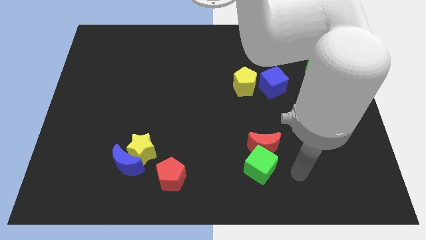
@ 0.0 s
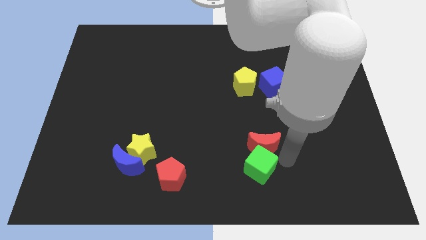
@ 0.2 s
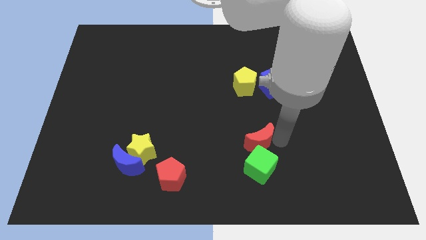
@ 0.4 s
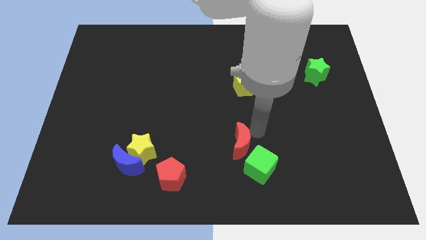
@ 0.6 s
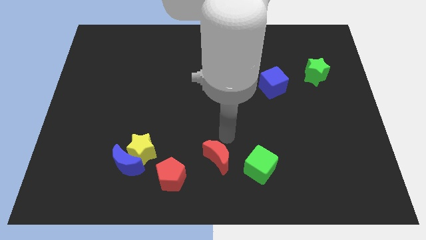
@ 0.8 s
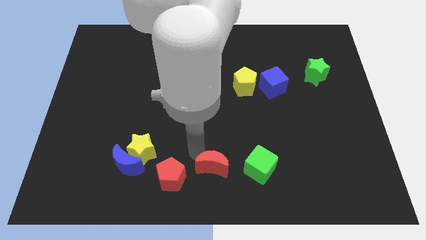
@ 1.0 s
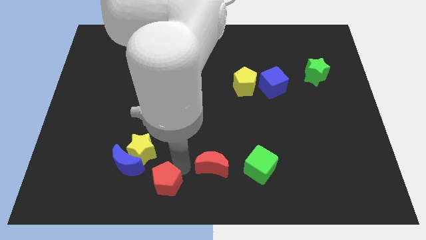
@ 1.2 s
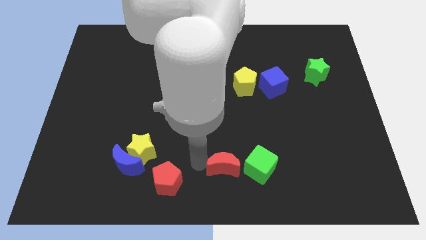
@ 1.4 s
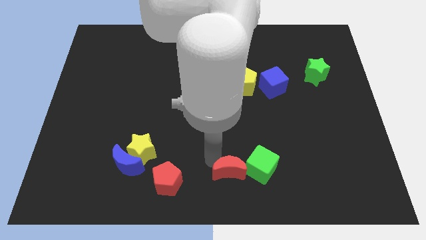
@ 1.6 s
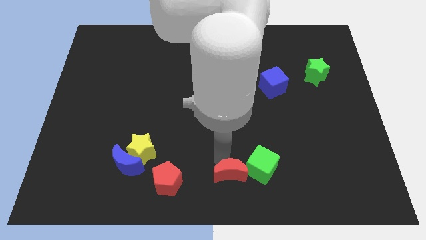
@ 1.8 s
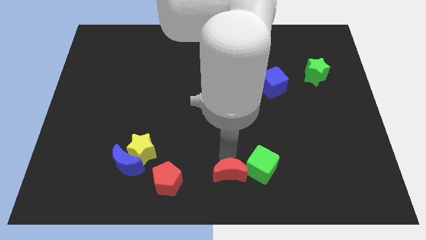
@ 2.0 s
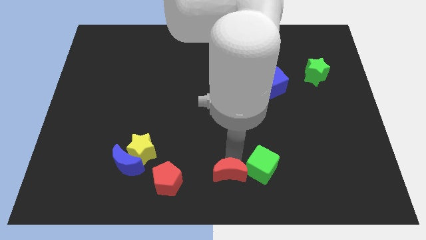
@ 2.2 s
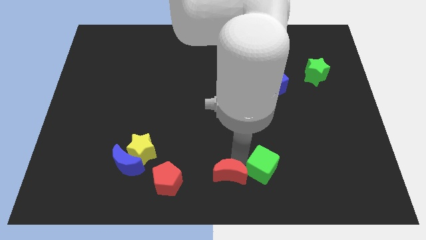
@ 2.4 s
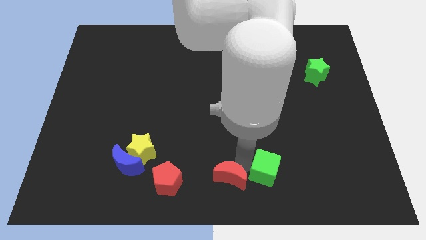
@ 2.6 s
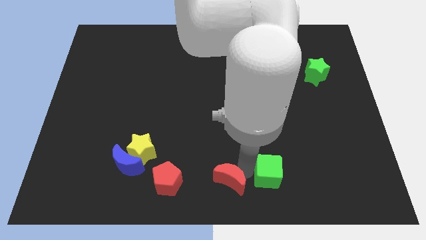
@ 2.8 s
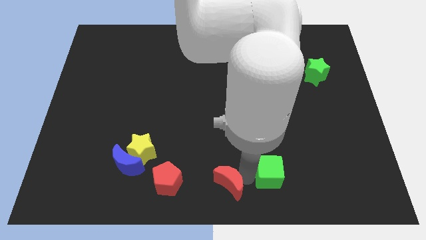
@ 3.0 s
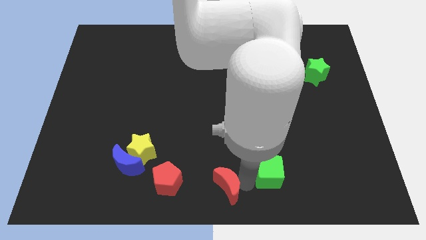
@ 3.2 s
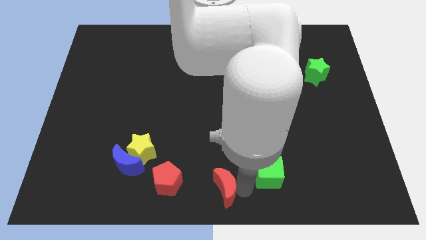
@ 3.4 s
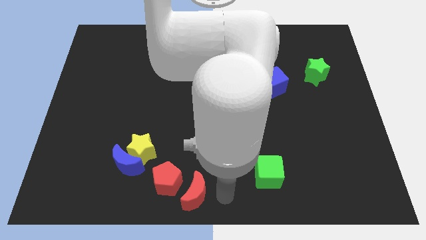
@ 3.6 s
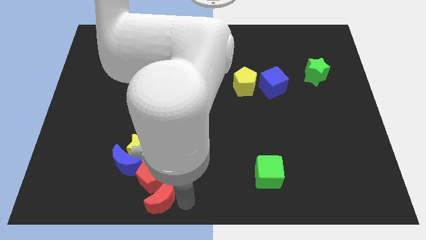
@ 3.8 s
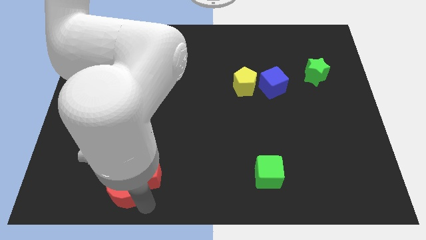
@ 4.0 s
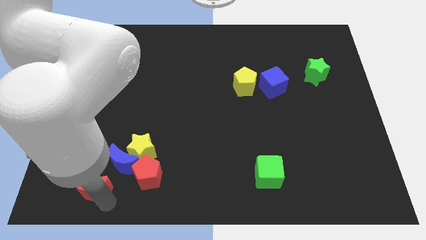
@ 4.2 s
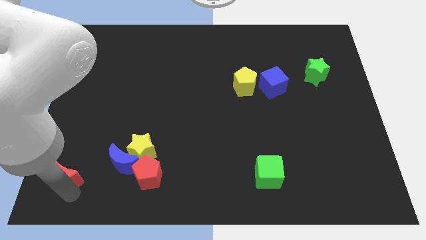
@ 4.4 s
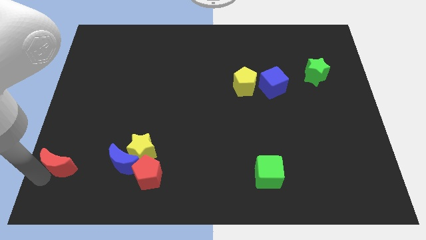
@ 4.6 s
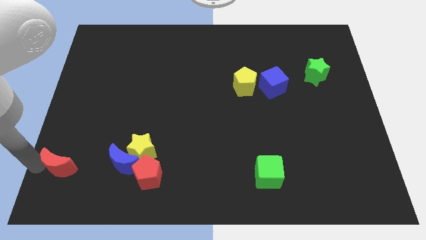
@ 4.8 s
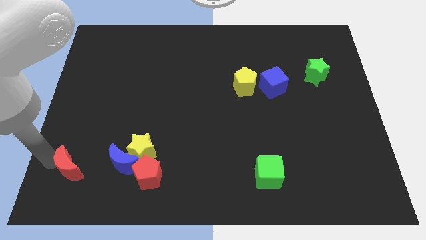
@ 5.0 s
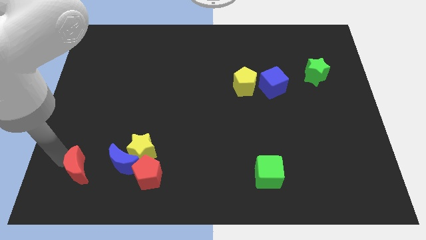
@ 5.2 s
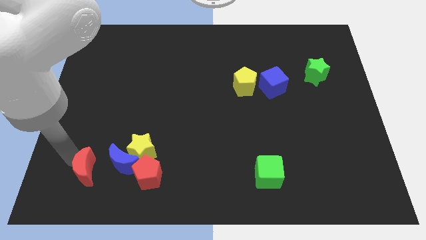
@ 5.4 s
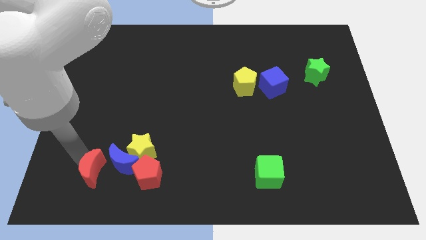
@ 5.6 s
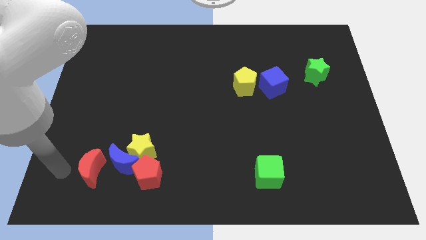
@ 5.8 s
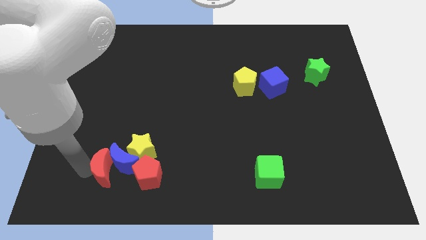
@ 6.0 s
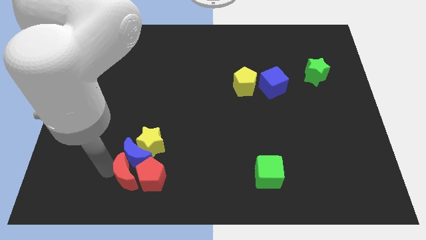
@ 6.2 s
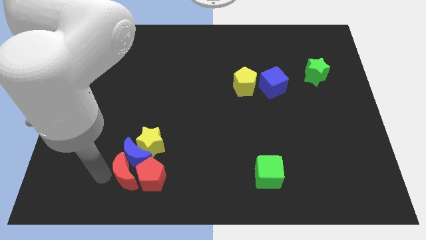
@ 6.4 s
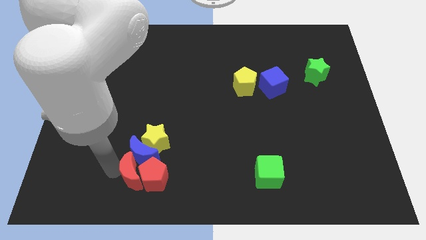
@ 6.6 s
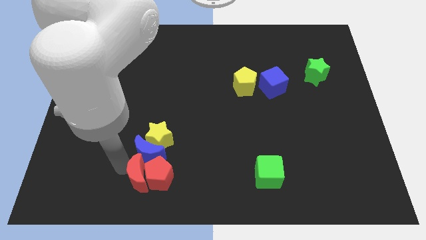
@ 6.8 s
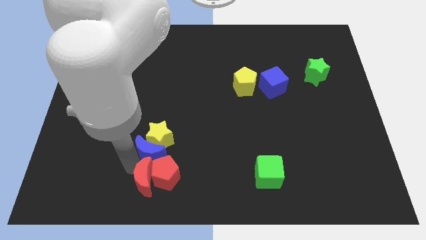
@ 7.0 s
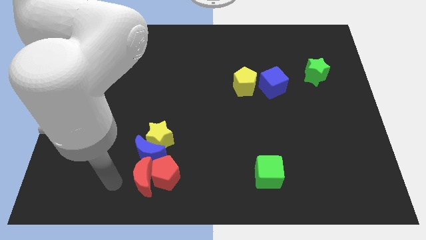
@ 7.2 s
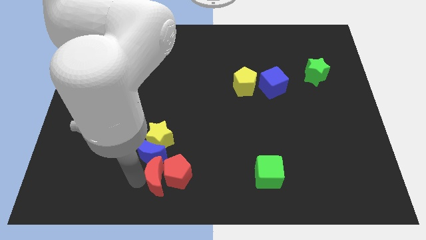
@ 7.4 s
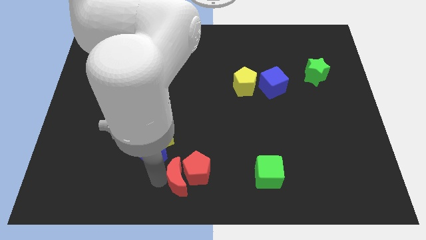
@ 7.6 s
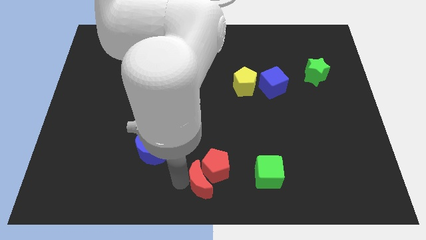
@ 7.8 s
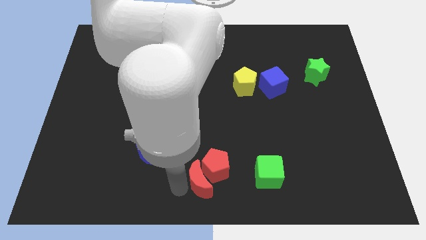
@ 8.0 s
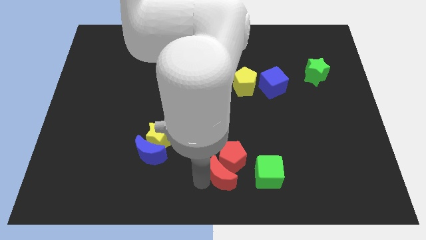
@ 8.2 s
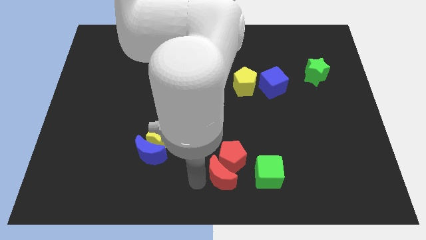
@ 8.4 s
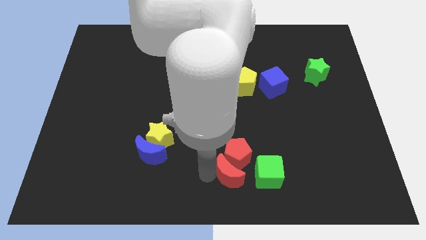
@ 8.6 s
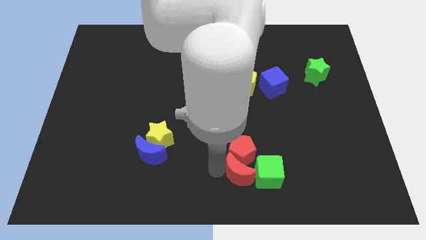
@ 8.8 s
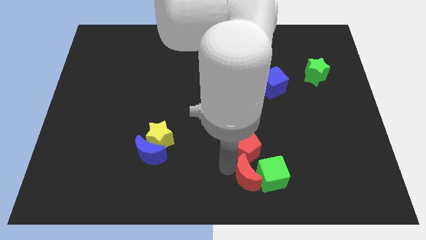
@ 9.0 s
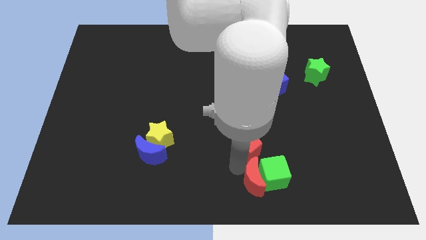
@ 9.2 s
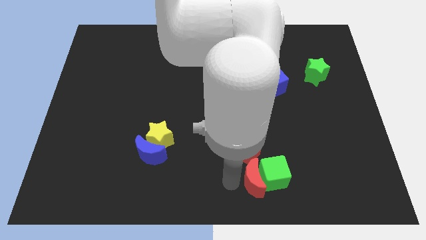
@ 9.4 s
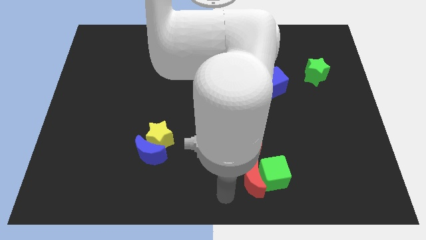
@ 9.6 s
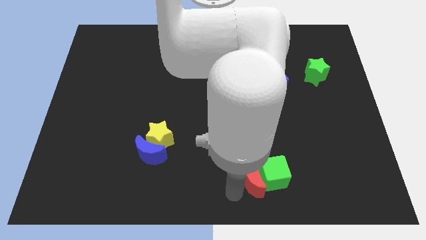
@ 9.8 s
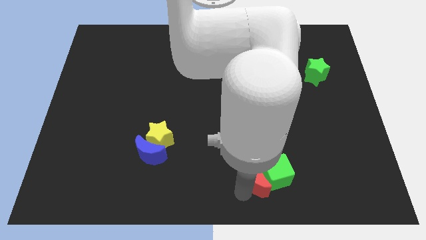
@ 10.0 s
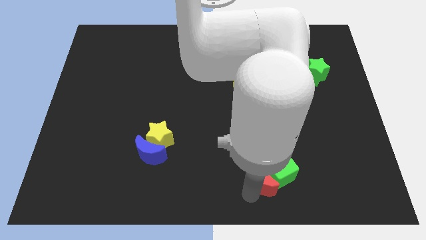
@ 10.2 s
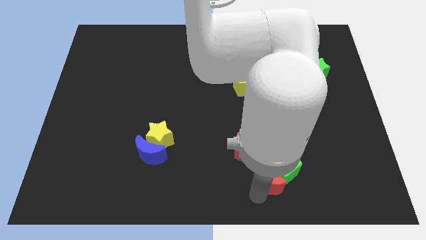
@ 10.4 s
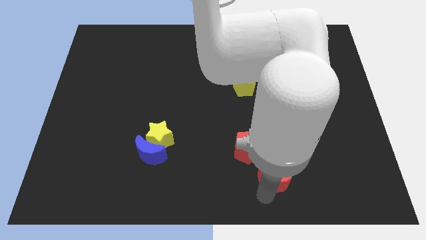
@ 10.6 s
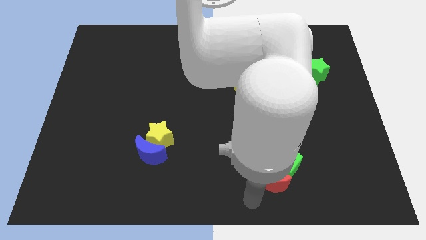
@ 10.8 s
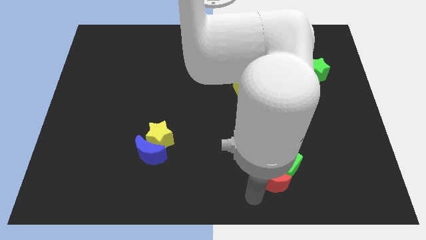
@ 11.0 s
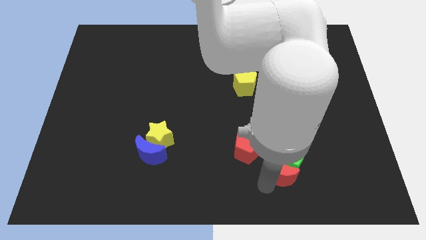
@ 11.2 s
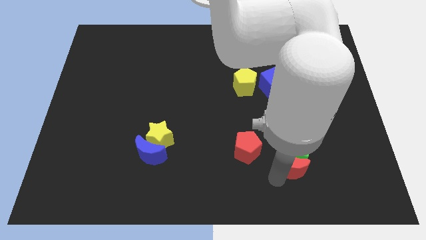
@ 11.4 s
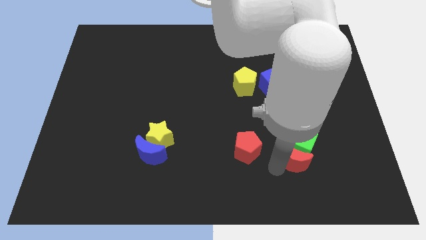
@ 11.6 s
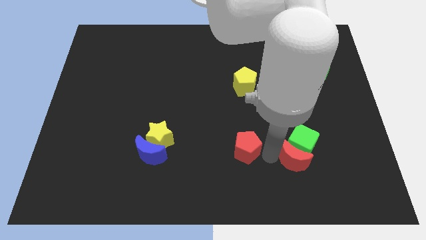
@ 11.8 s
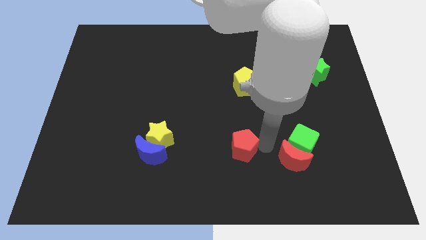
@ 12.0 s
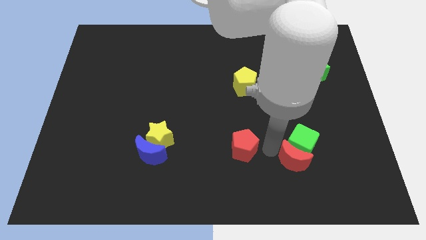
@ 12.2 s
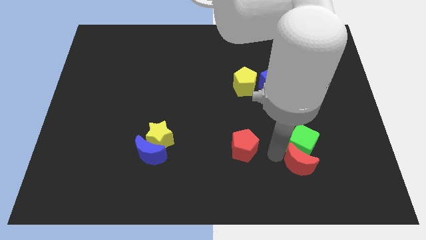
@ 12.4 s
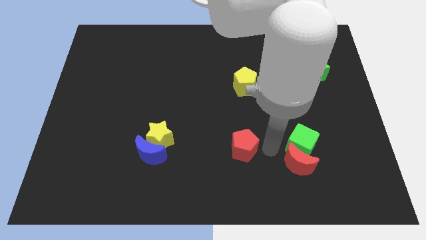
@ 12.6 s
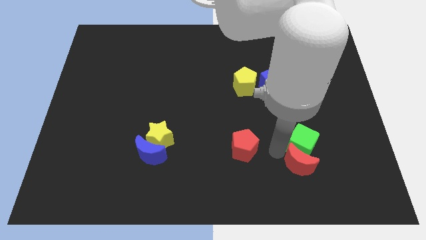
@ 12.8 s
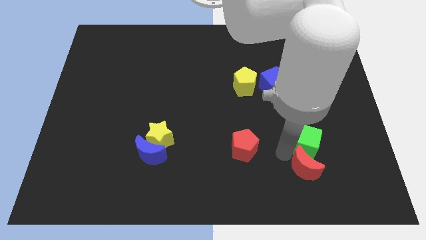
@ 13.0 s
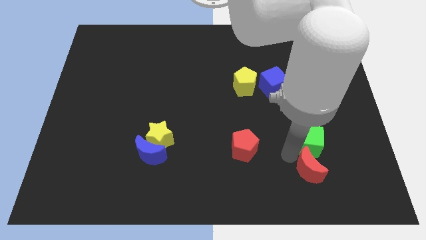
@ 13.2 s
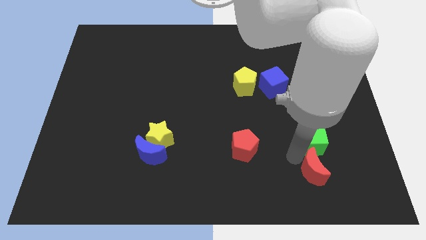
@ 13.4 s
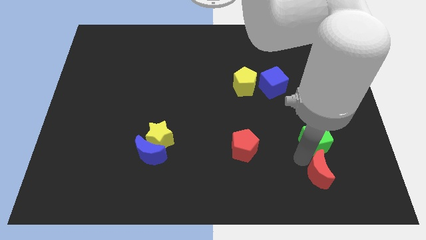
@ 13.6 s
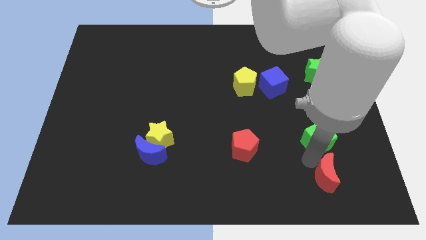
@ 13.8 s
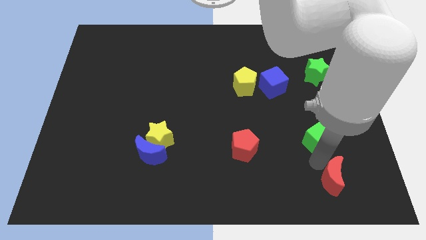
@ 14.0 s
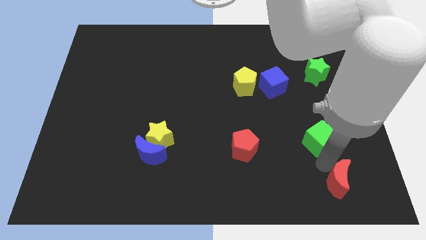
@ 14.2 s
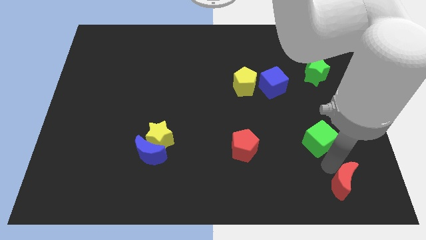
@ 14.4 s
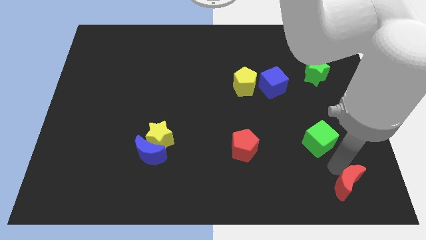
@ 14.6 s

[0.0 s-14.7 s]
push the red moon to the bottom right of the board

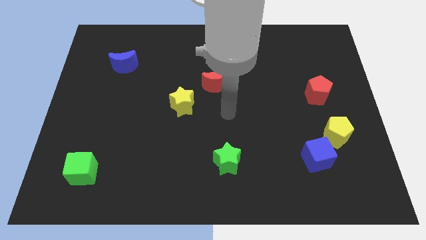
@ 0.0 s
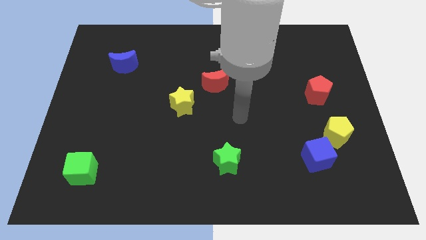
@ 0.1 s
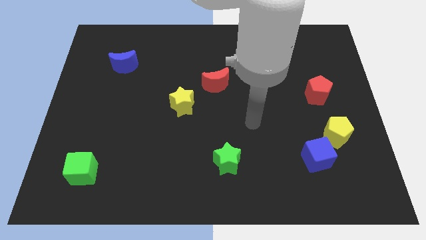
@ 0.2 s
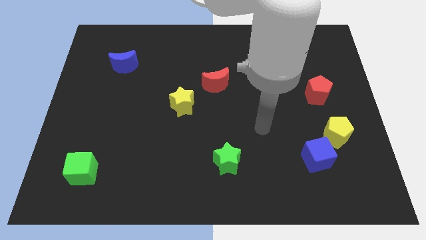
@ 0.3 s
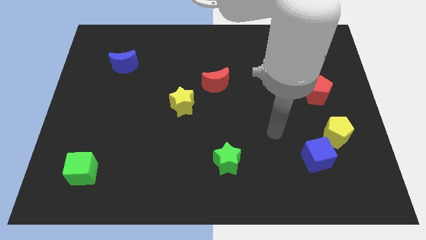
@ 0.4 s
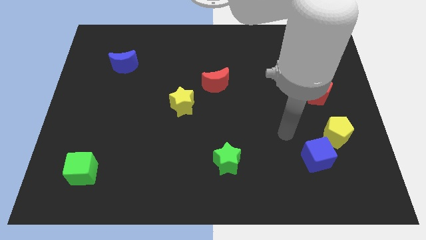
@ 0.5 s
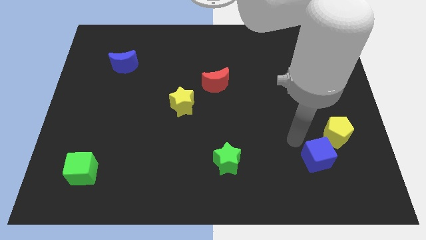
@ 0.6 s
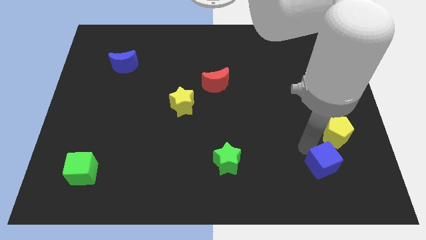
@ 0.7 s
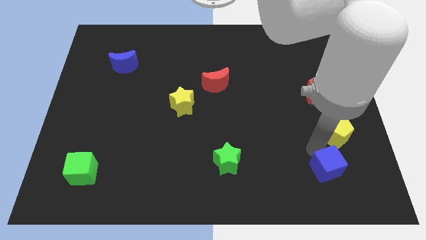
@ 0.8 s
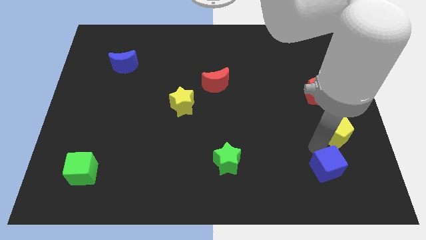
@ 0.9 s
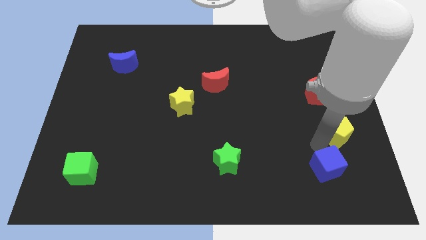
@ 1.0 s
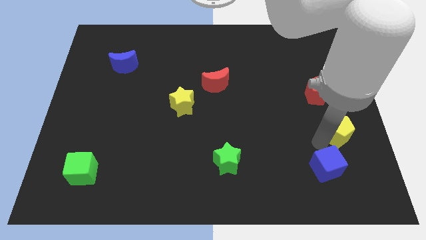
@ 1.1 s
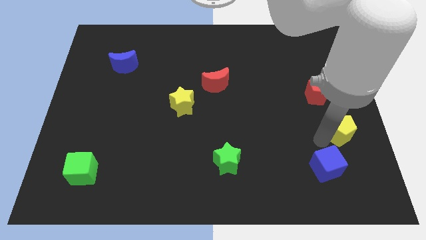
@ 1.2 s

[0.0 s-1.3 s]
slide the yellow pentagon to the right side of the board
